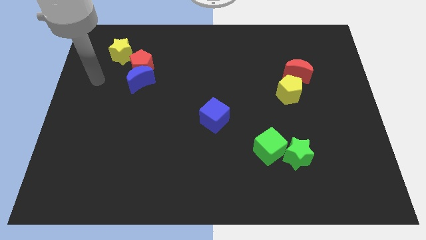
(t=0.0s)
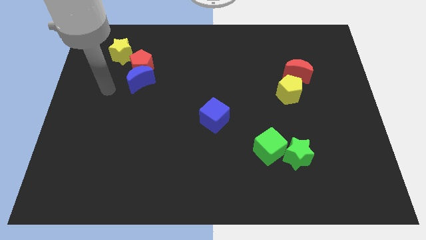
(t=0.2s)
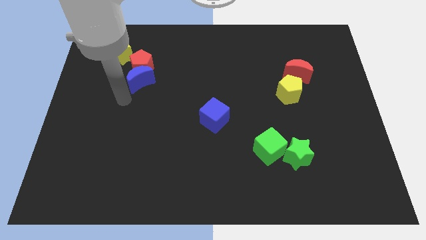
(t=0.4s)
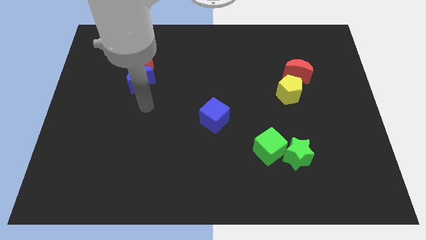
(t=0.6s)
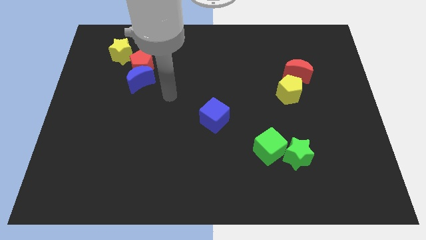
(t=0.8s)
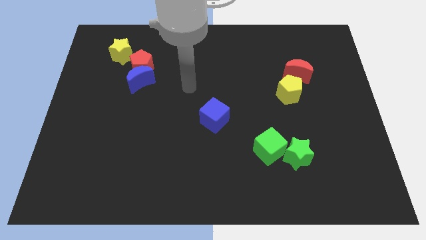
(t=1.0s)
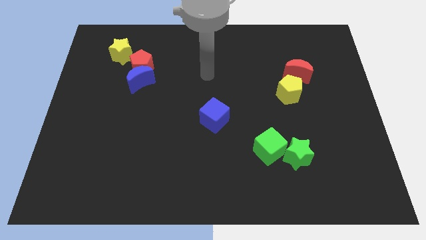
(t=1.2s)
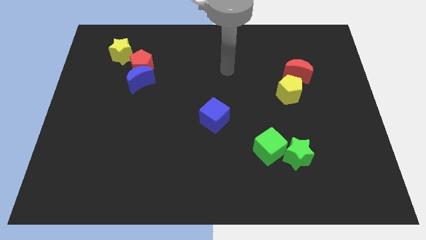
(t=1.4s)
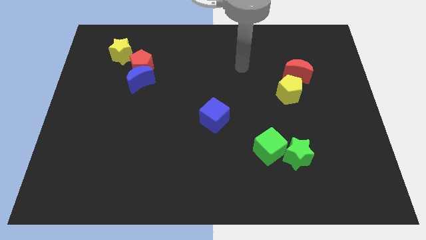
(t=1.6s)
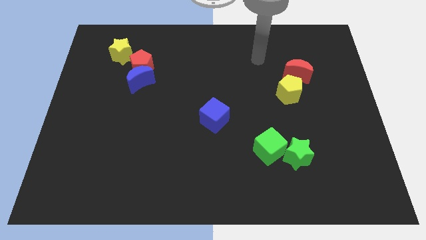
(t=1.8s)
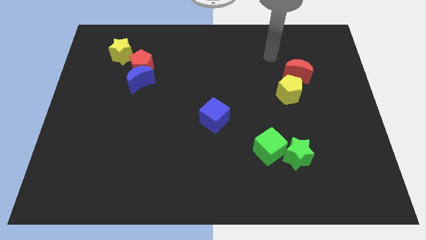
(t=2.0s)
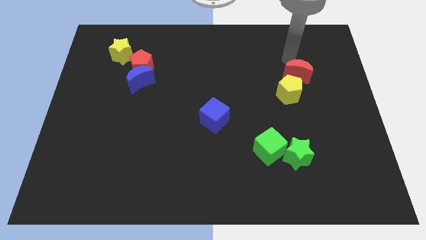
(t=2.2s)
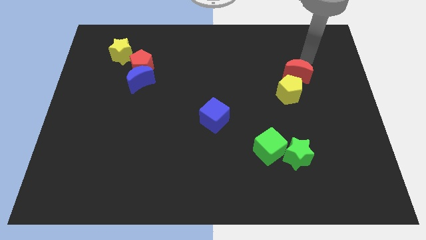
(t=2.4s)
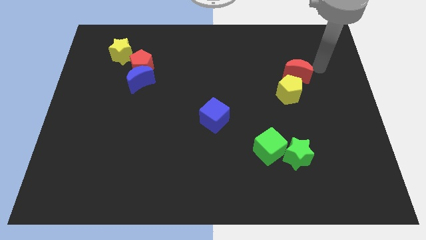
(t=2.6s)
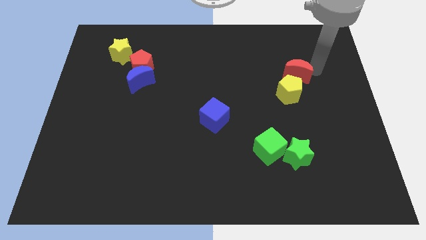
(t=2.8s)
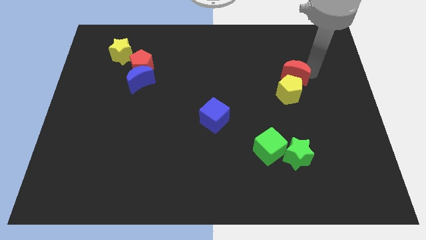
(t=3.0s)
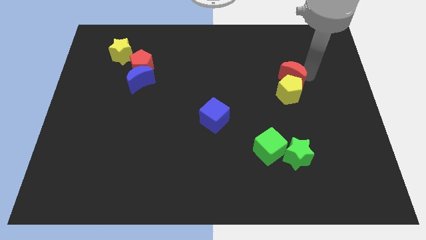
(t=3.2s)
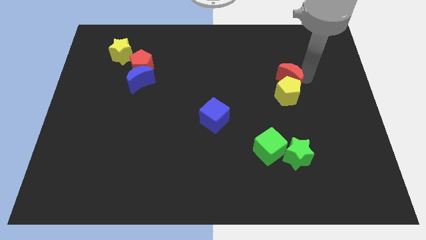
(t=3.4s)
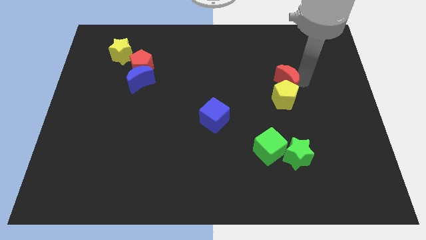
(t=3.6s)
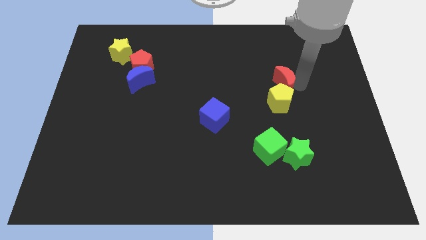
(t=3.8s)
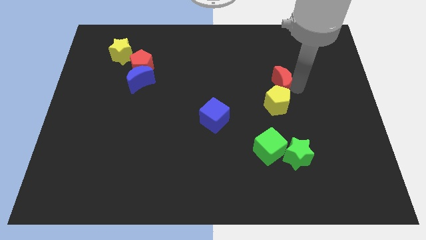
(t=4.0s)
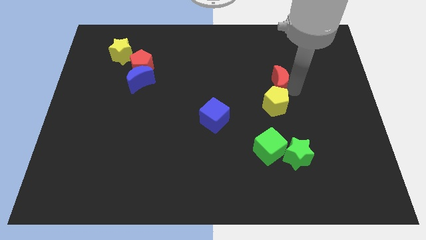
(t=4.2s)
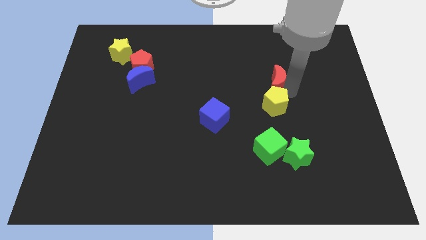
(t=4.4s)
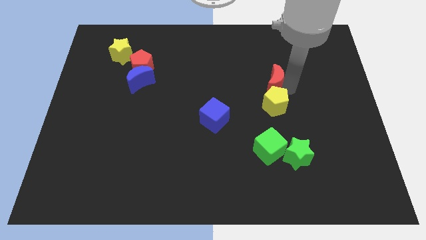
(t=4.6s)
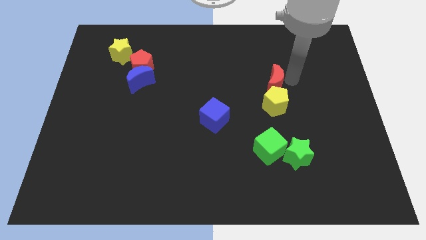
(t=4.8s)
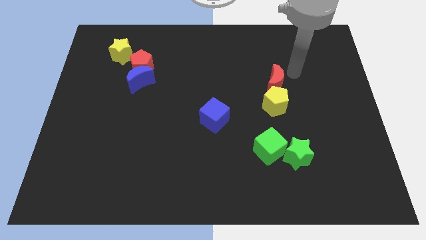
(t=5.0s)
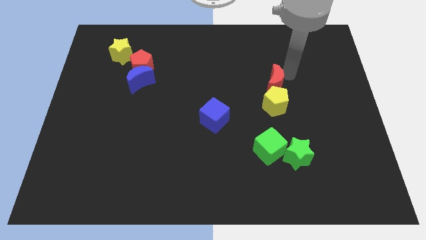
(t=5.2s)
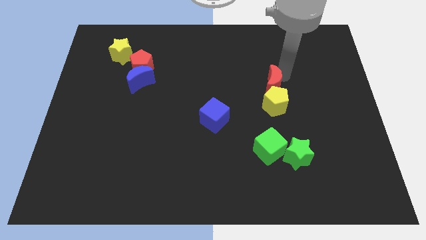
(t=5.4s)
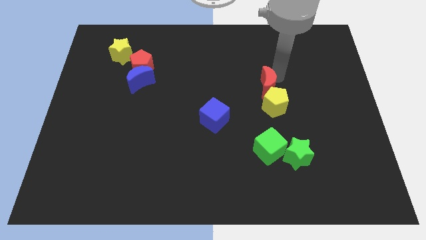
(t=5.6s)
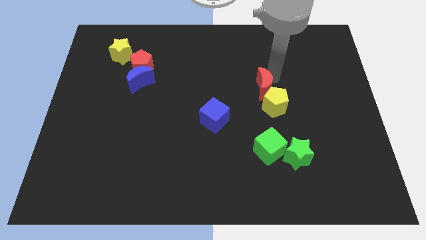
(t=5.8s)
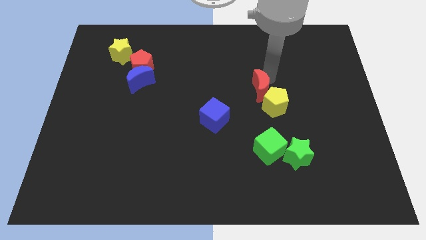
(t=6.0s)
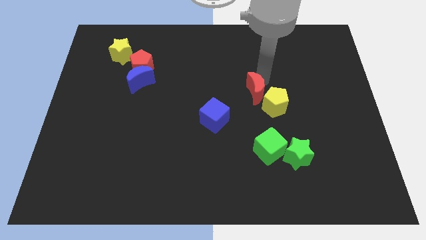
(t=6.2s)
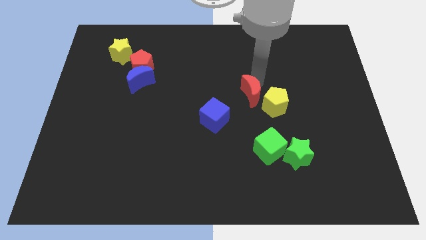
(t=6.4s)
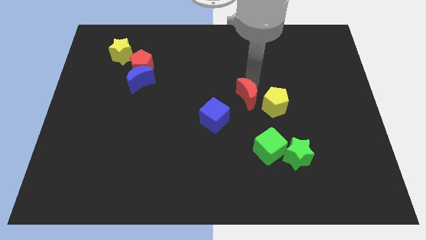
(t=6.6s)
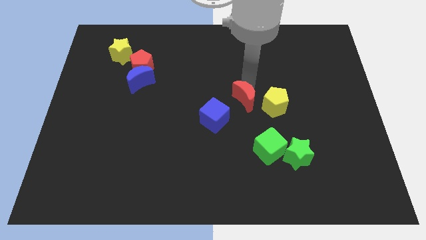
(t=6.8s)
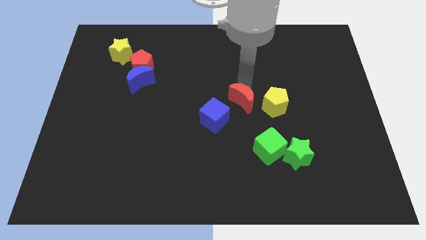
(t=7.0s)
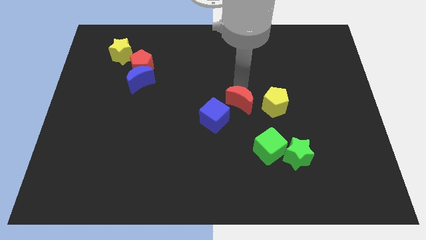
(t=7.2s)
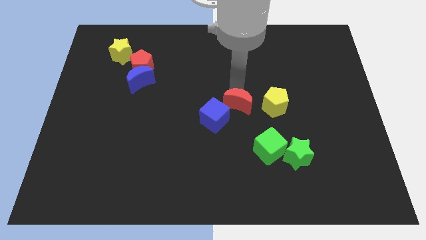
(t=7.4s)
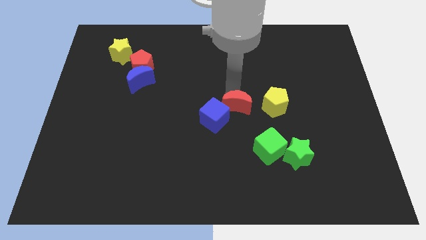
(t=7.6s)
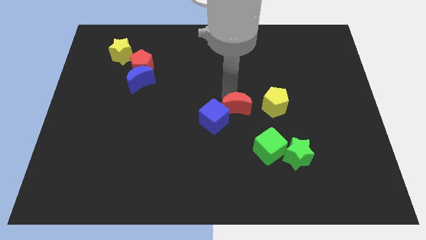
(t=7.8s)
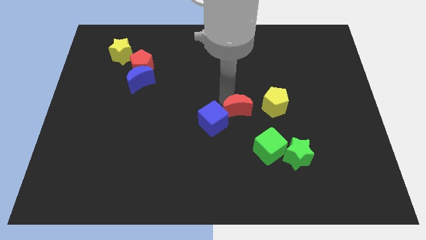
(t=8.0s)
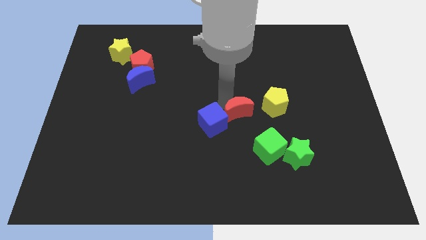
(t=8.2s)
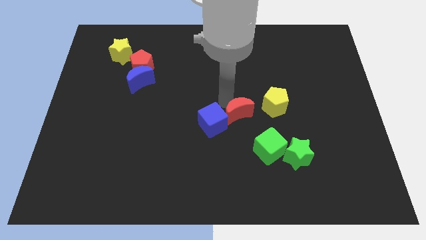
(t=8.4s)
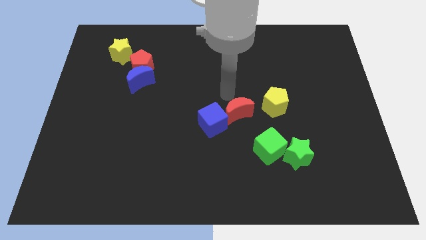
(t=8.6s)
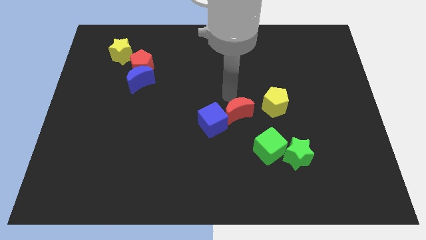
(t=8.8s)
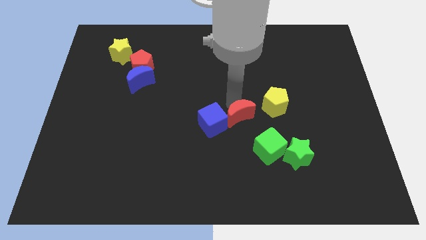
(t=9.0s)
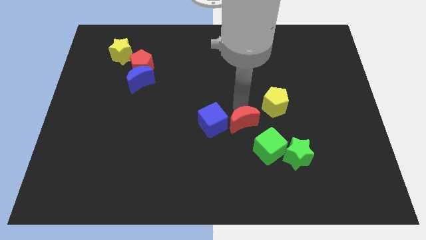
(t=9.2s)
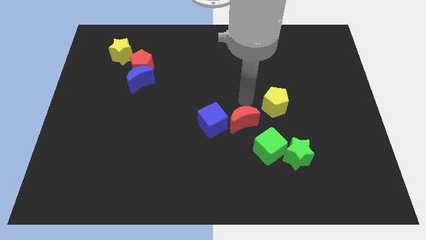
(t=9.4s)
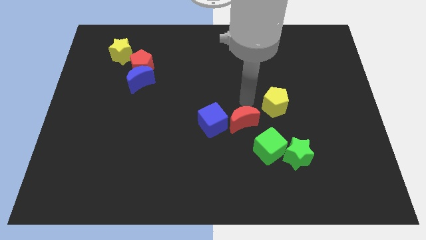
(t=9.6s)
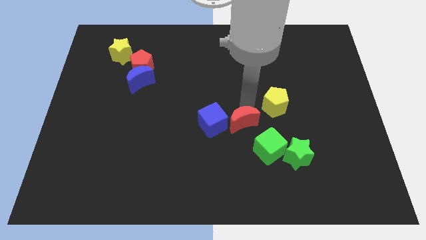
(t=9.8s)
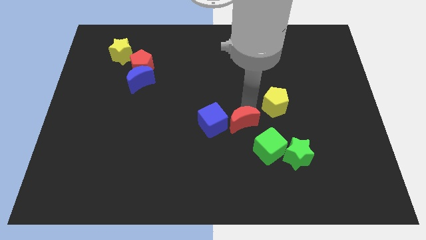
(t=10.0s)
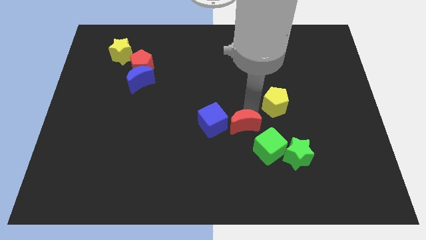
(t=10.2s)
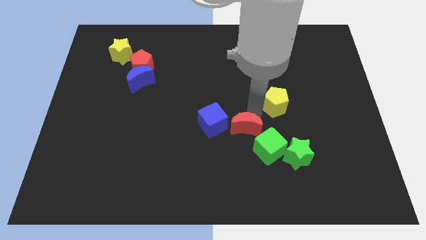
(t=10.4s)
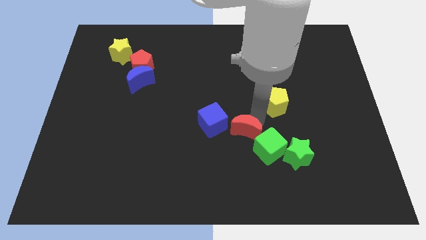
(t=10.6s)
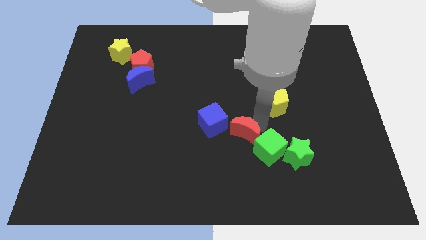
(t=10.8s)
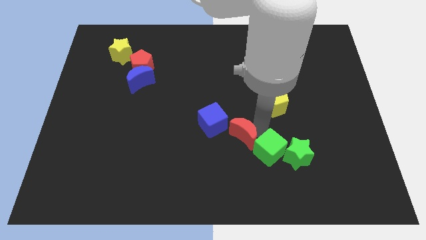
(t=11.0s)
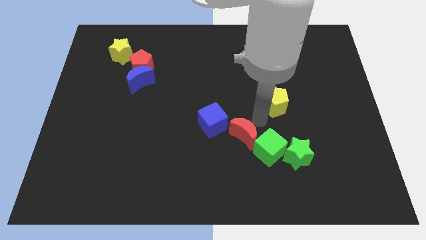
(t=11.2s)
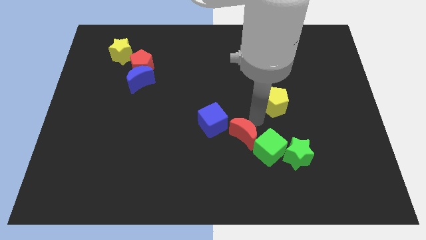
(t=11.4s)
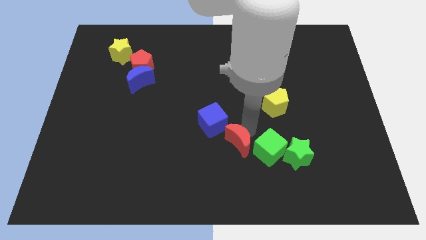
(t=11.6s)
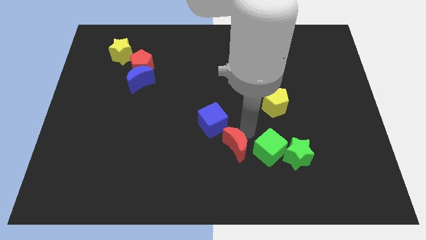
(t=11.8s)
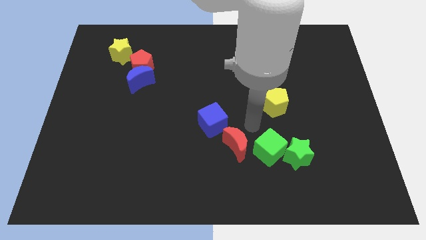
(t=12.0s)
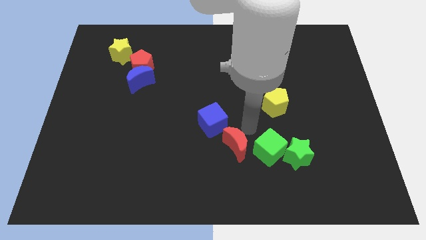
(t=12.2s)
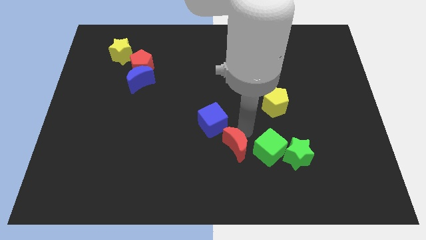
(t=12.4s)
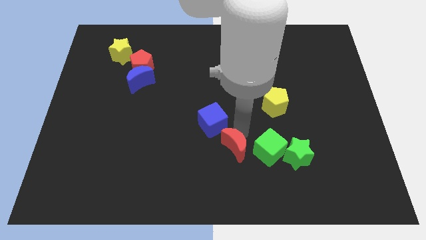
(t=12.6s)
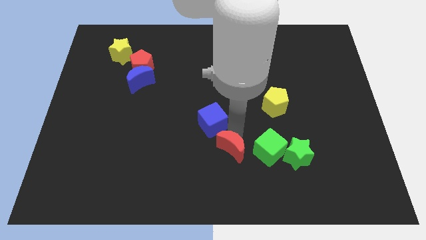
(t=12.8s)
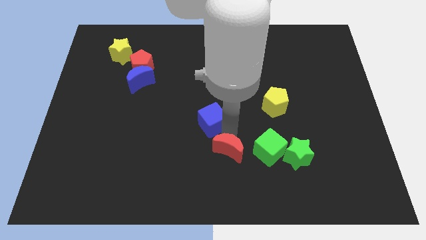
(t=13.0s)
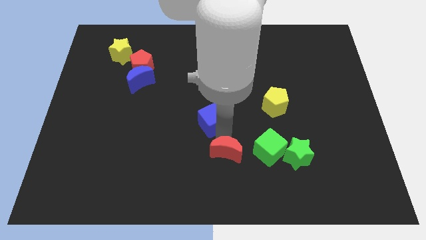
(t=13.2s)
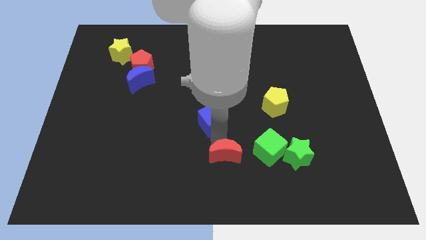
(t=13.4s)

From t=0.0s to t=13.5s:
slide the red moon to the bottom side
